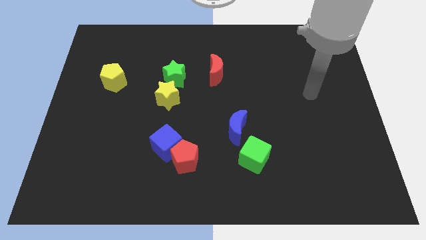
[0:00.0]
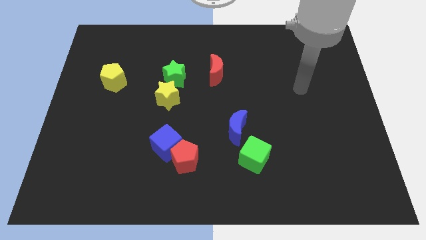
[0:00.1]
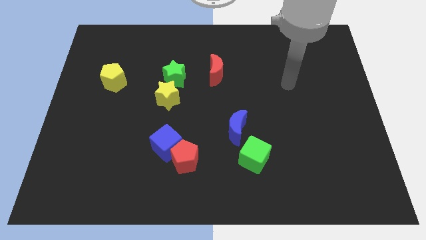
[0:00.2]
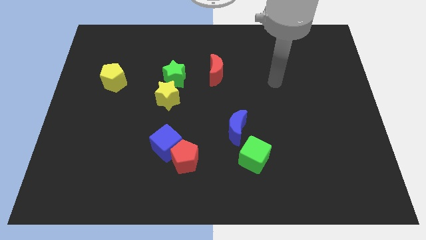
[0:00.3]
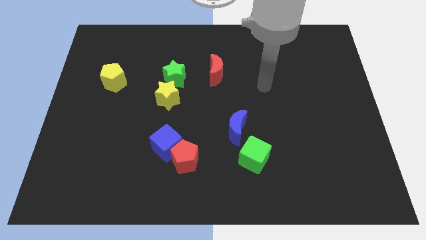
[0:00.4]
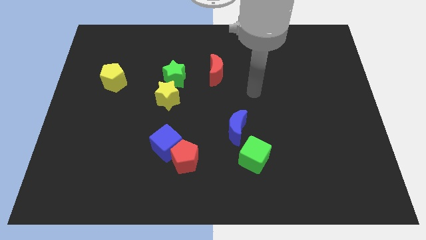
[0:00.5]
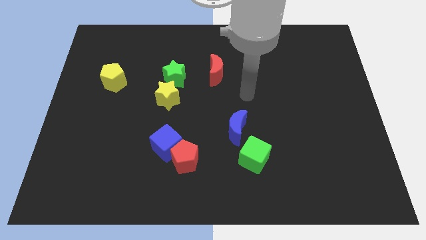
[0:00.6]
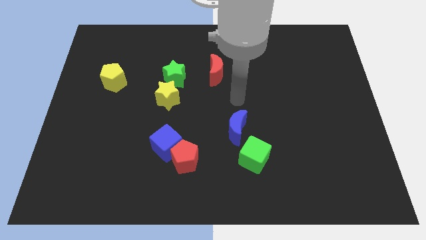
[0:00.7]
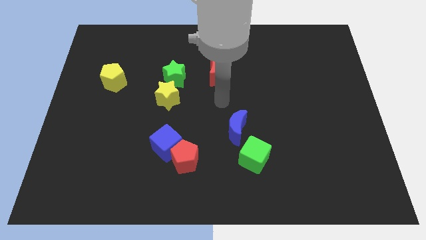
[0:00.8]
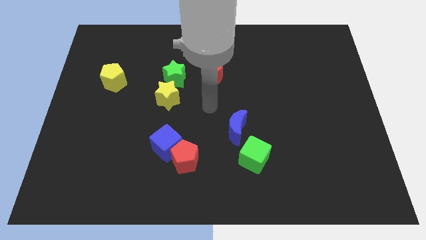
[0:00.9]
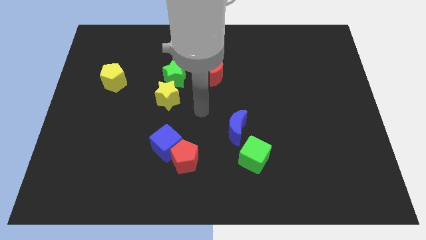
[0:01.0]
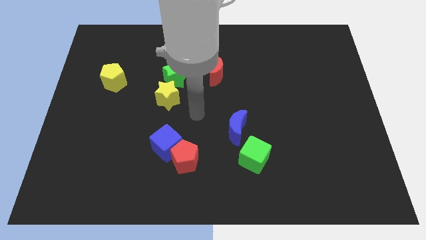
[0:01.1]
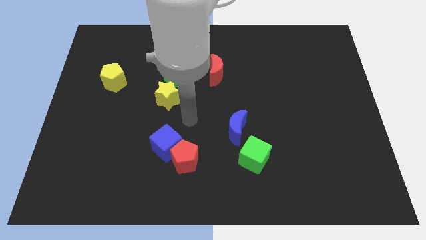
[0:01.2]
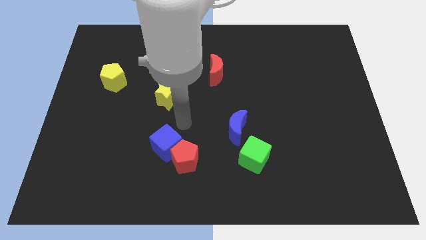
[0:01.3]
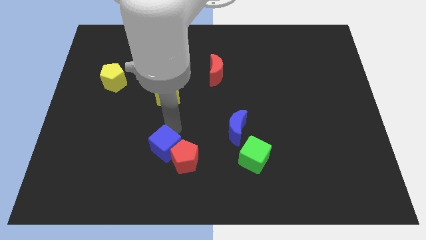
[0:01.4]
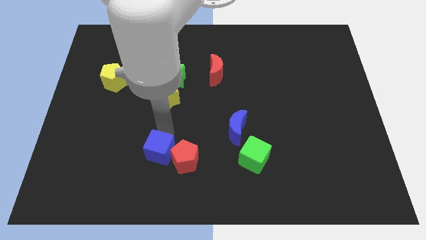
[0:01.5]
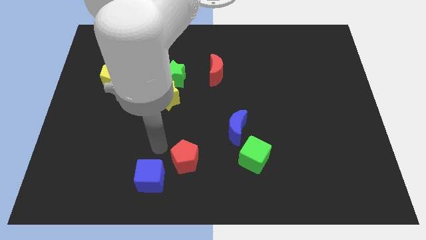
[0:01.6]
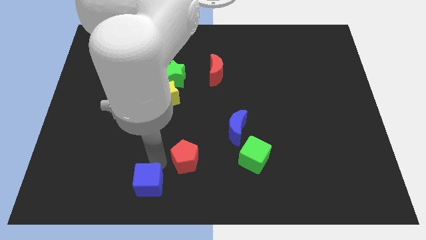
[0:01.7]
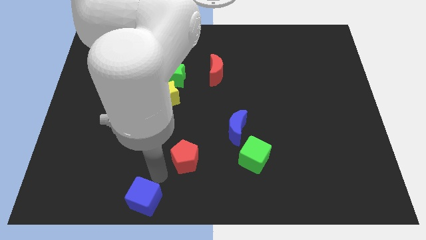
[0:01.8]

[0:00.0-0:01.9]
separate the red pentagon from the blue cube

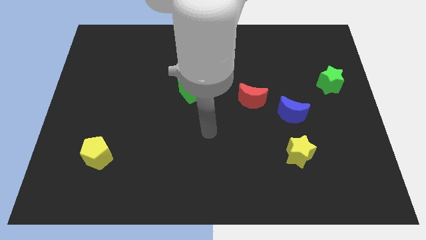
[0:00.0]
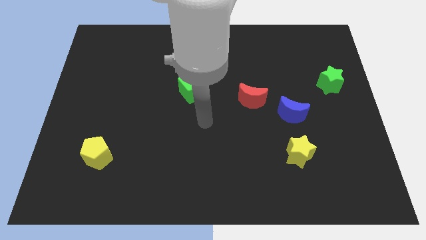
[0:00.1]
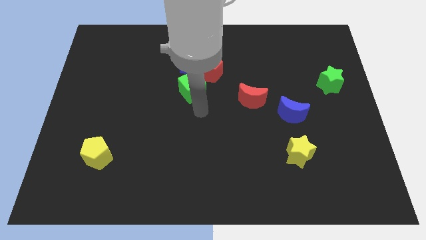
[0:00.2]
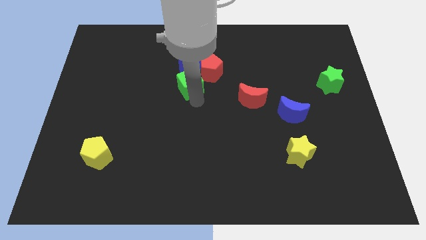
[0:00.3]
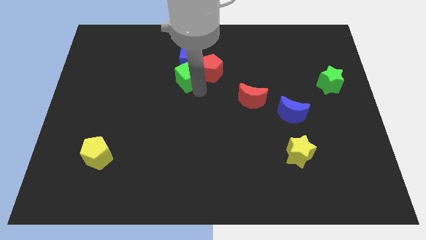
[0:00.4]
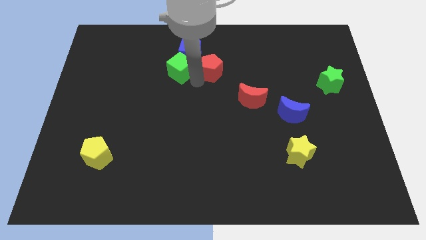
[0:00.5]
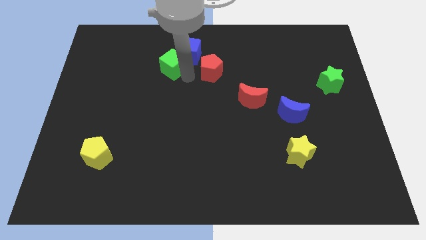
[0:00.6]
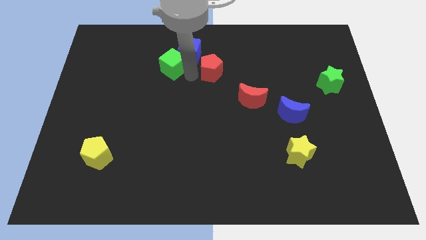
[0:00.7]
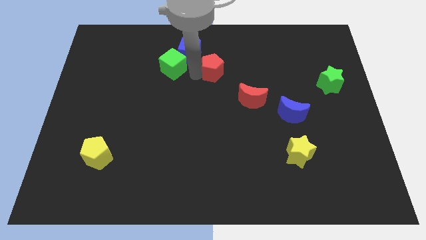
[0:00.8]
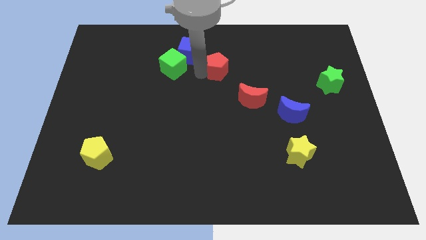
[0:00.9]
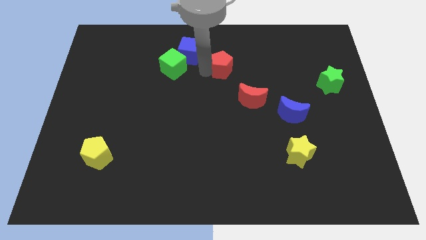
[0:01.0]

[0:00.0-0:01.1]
separate the red pentagon from the blue cube and green cube

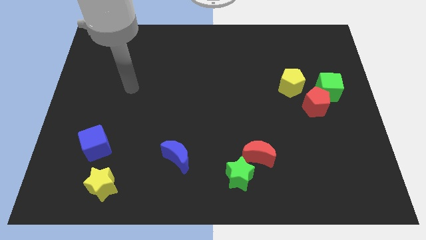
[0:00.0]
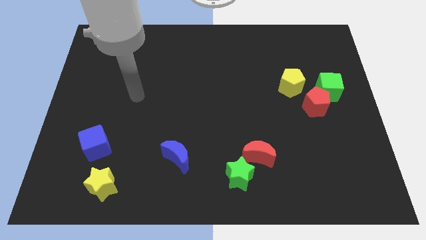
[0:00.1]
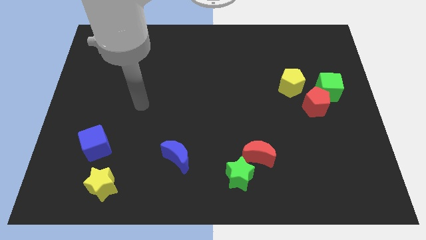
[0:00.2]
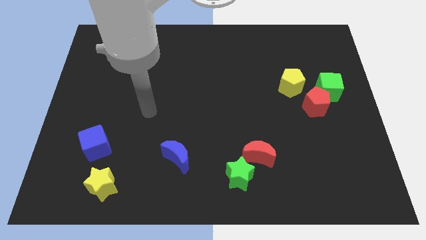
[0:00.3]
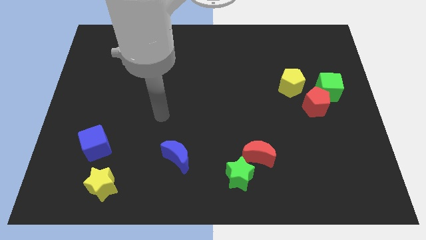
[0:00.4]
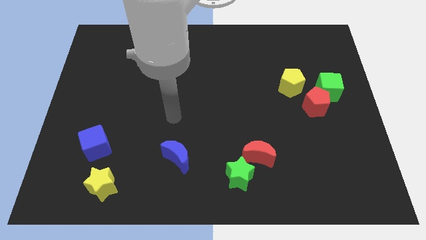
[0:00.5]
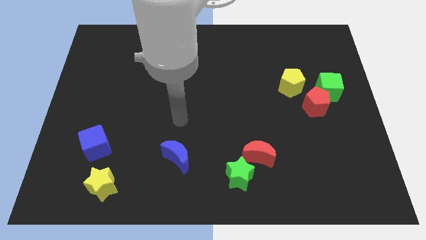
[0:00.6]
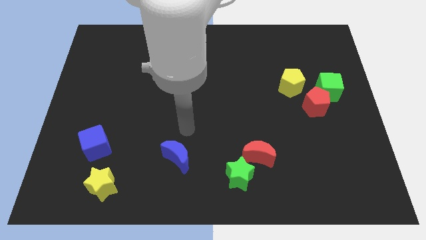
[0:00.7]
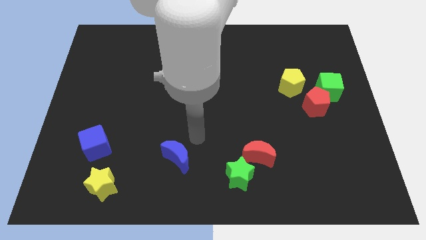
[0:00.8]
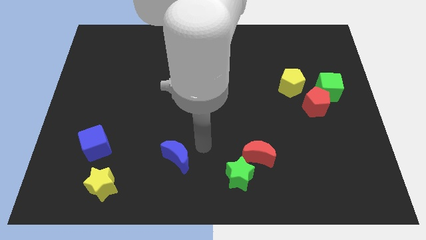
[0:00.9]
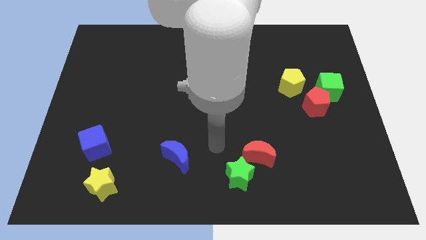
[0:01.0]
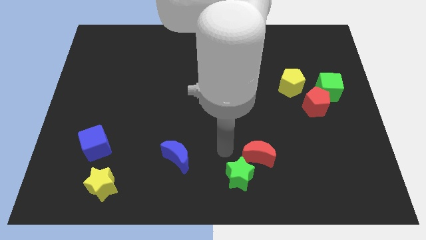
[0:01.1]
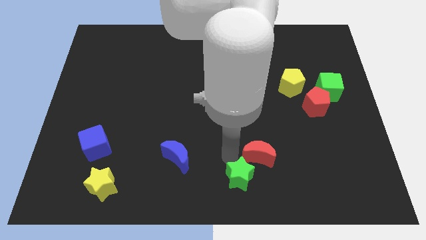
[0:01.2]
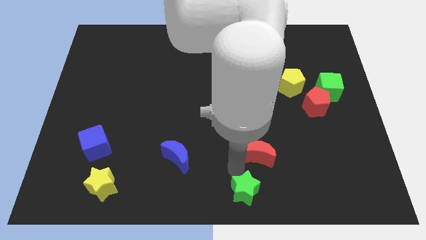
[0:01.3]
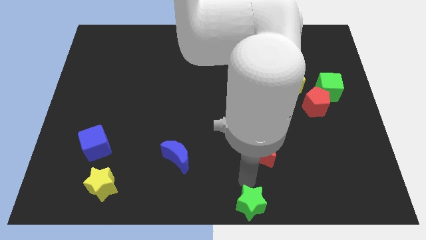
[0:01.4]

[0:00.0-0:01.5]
pull the red moon apart from the green star

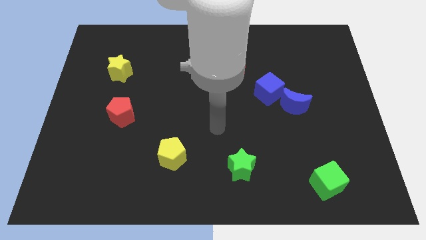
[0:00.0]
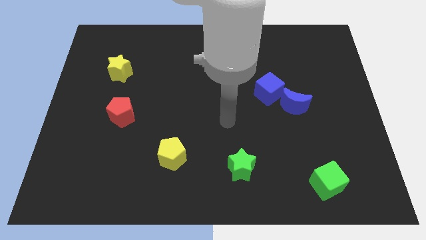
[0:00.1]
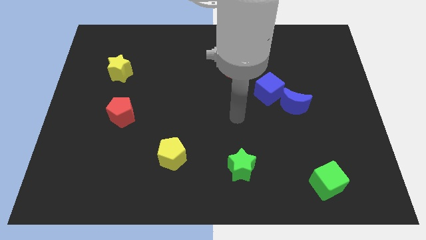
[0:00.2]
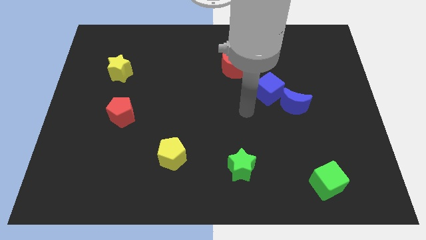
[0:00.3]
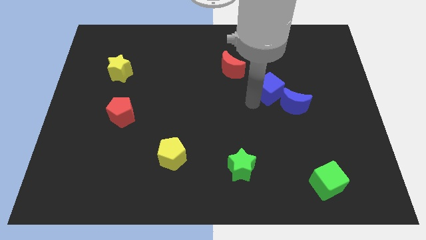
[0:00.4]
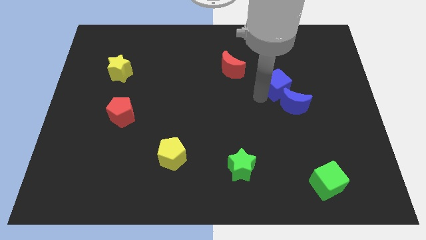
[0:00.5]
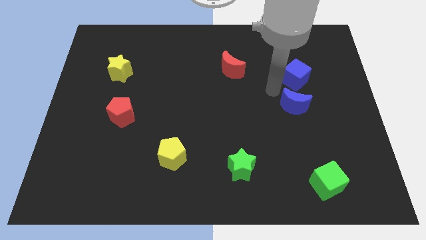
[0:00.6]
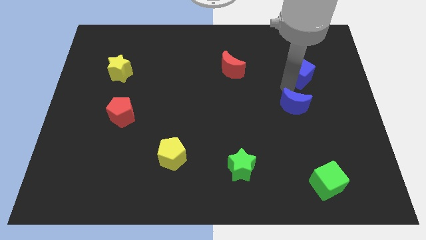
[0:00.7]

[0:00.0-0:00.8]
move the blue moon away from the blue cube

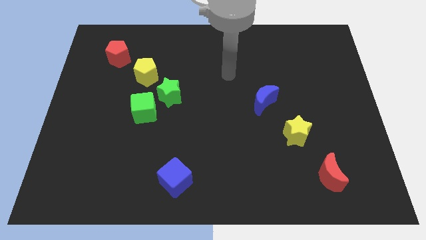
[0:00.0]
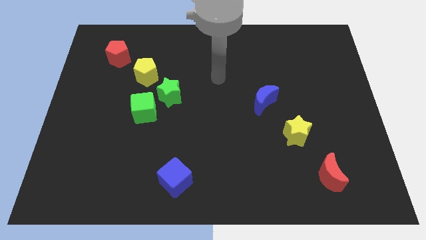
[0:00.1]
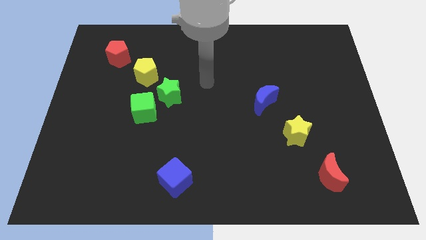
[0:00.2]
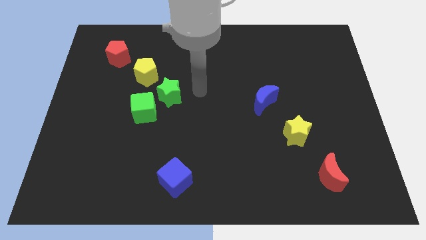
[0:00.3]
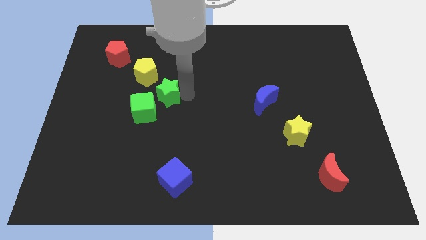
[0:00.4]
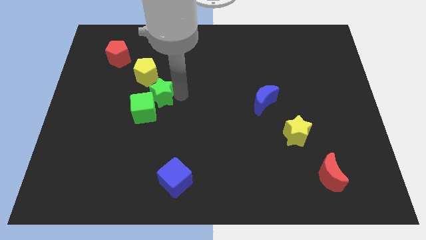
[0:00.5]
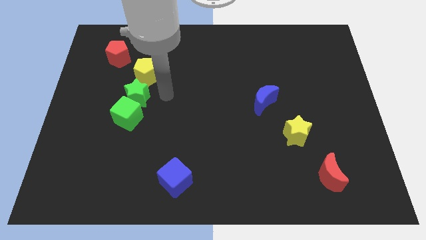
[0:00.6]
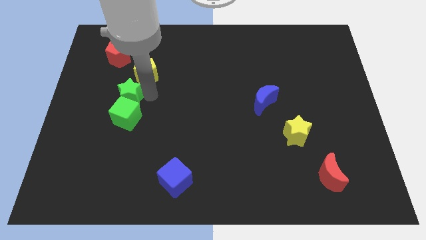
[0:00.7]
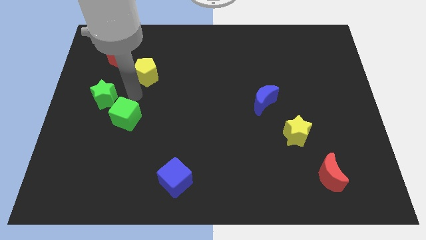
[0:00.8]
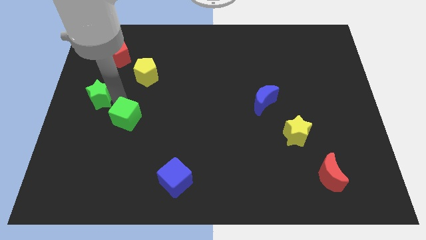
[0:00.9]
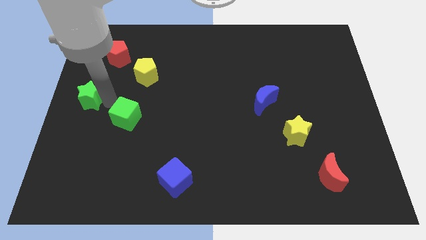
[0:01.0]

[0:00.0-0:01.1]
pull the green cube apart from the green star

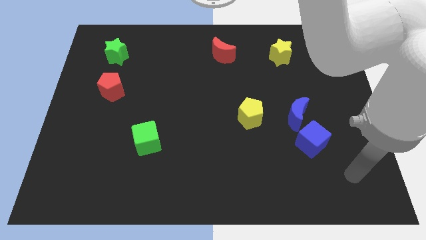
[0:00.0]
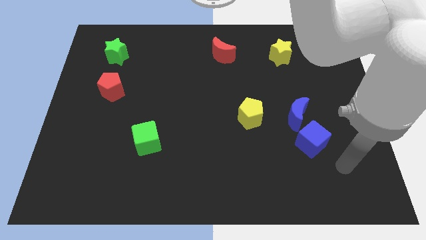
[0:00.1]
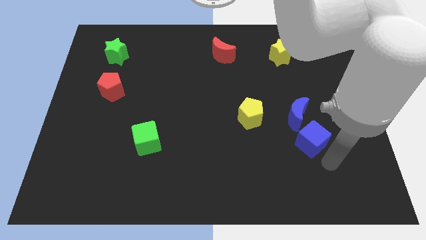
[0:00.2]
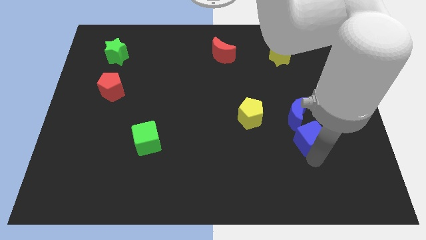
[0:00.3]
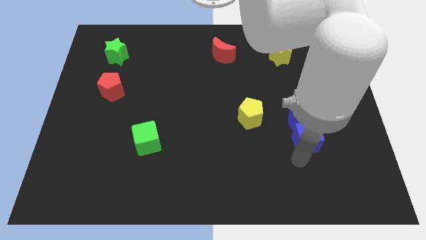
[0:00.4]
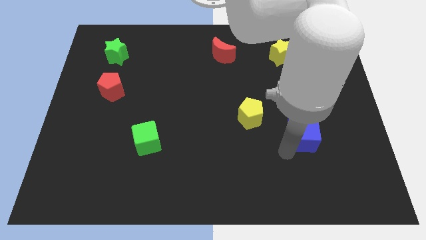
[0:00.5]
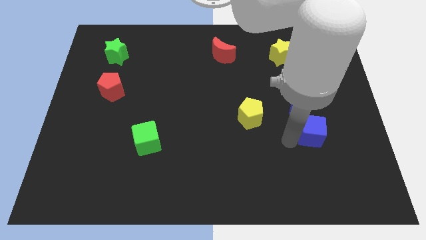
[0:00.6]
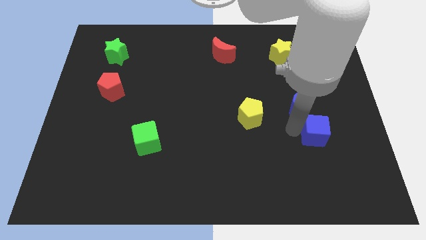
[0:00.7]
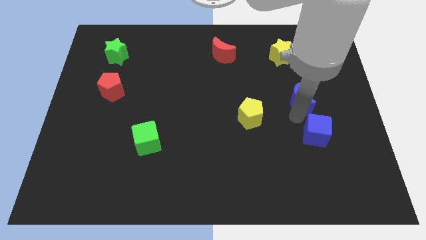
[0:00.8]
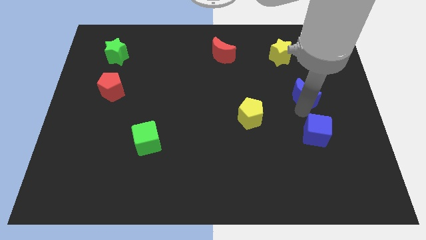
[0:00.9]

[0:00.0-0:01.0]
pull the blue cube apart from the blue moon

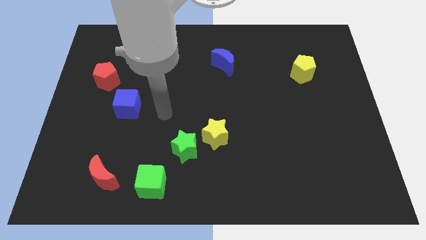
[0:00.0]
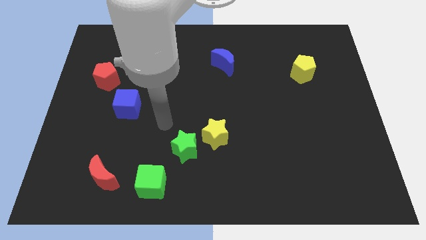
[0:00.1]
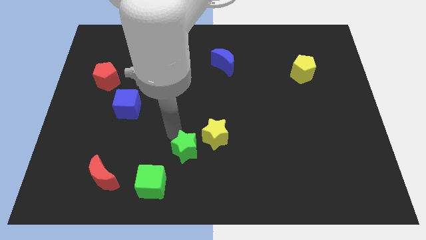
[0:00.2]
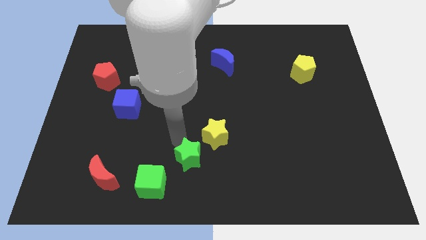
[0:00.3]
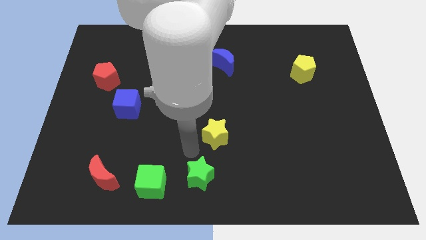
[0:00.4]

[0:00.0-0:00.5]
pull the yellow star apart from the green star

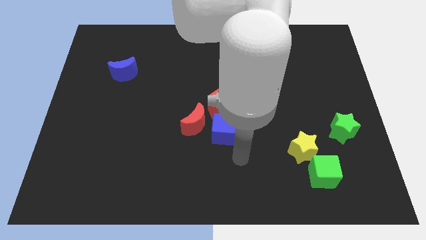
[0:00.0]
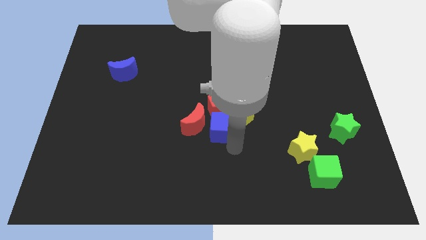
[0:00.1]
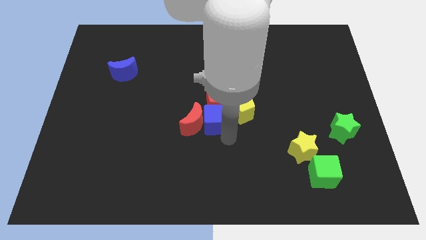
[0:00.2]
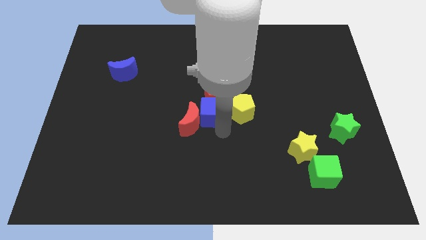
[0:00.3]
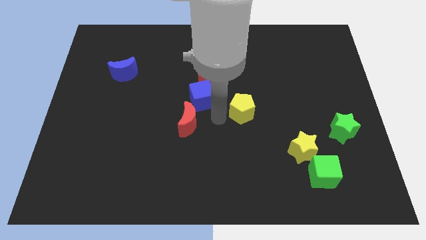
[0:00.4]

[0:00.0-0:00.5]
pull the yellow pentagon apart from the red pentagon and blue cube

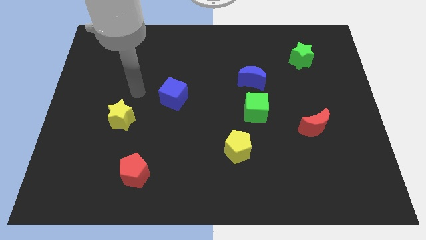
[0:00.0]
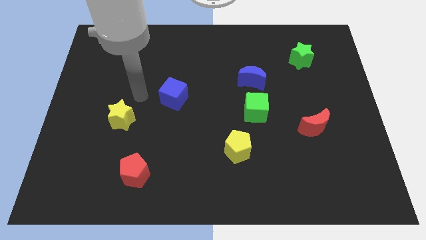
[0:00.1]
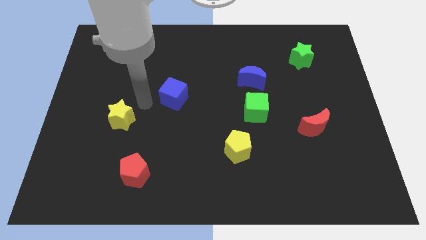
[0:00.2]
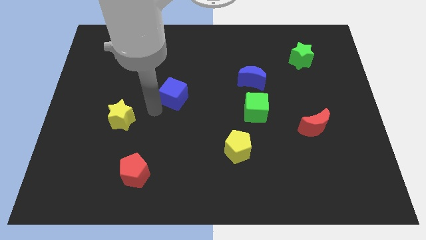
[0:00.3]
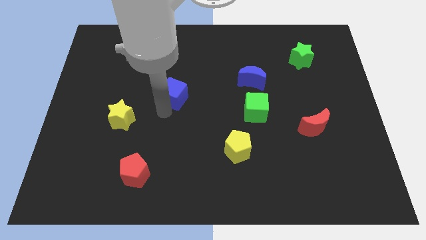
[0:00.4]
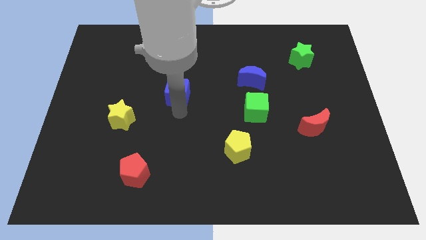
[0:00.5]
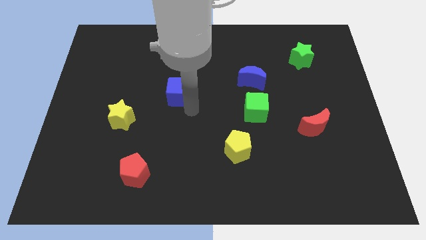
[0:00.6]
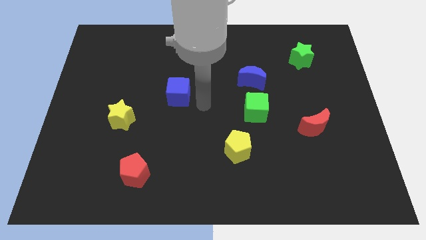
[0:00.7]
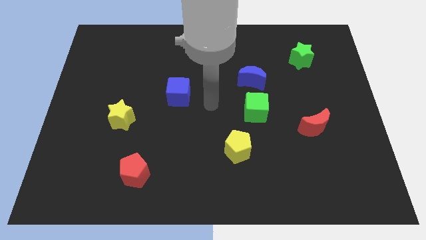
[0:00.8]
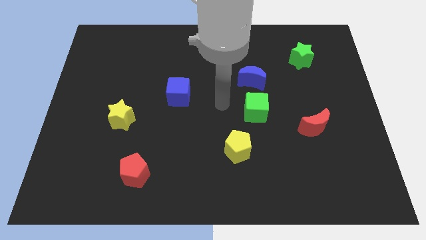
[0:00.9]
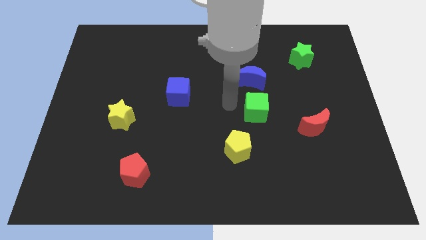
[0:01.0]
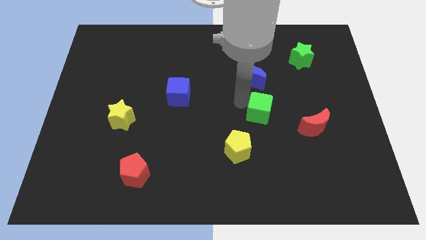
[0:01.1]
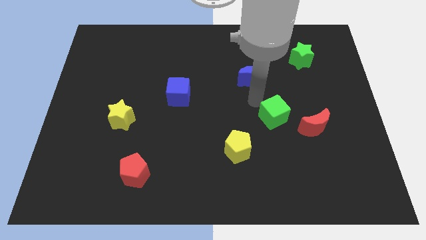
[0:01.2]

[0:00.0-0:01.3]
separate the blue moon from the green cube
